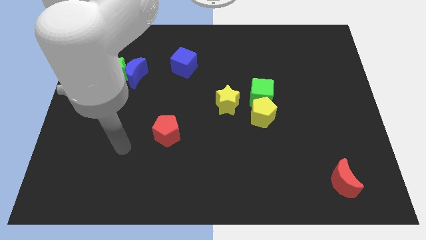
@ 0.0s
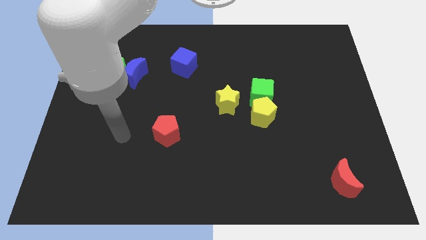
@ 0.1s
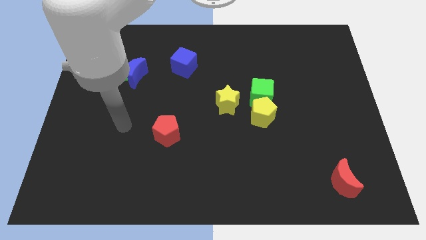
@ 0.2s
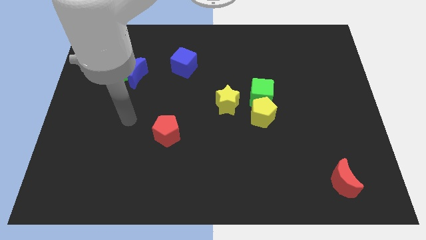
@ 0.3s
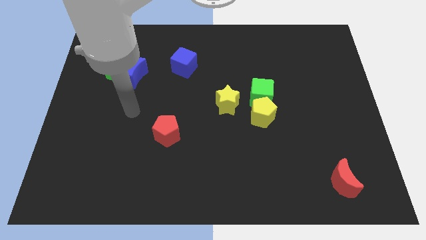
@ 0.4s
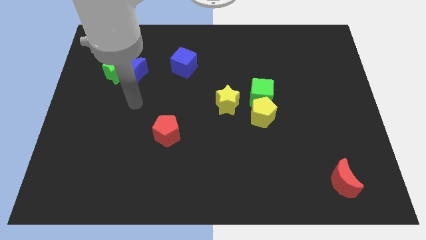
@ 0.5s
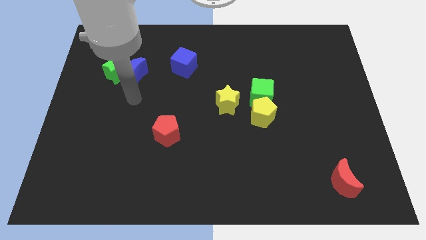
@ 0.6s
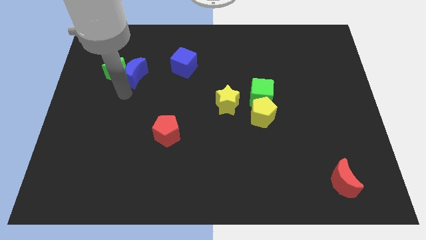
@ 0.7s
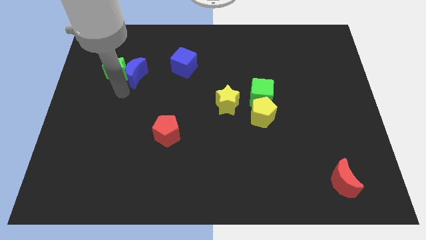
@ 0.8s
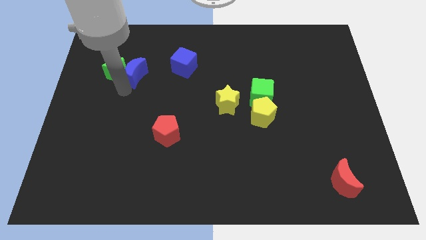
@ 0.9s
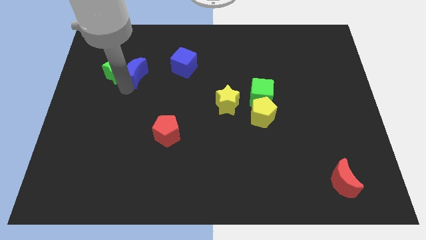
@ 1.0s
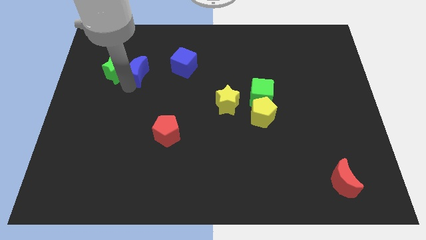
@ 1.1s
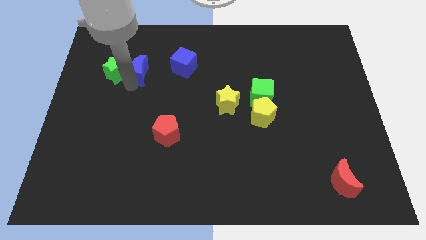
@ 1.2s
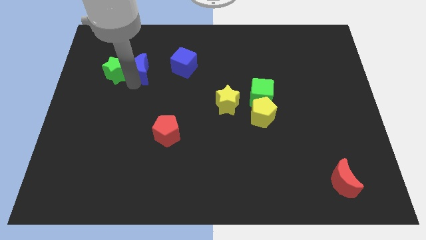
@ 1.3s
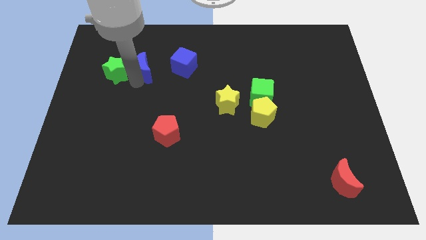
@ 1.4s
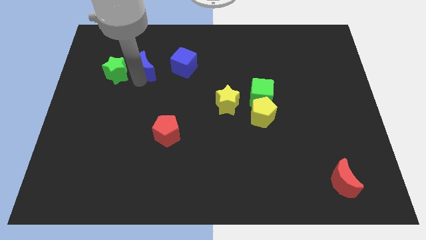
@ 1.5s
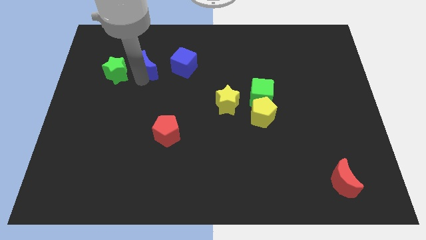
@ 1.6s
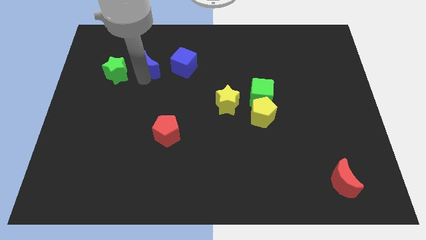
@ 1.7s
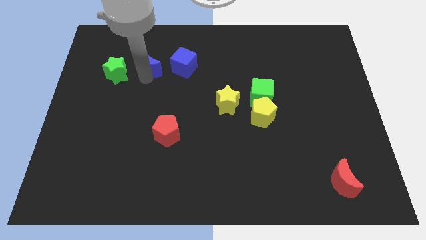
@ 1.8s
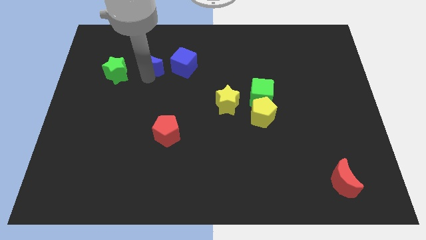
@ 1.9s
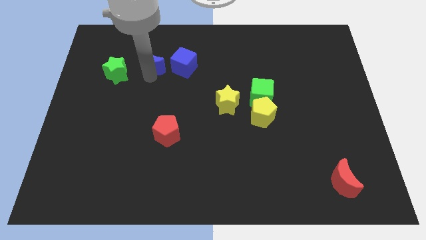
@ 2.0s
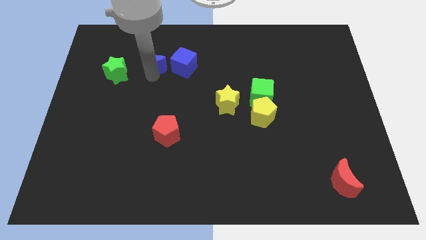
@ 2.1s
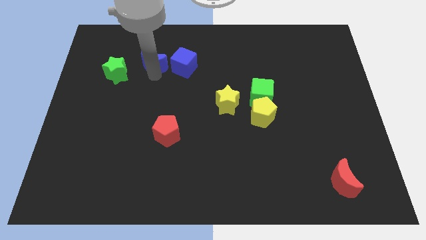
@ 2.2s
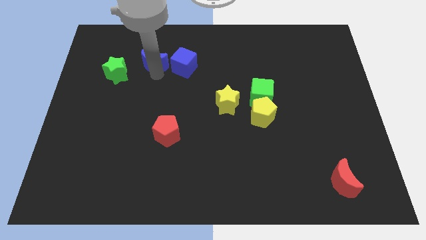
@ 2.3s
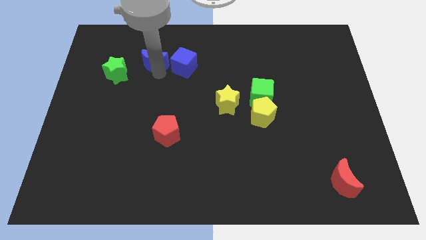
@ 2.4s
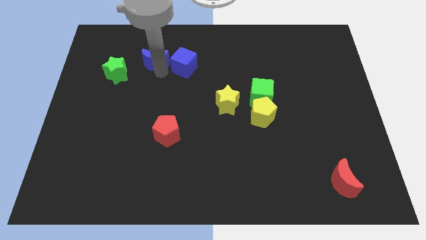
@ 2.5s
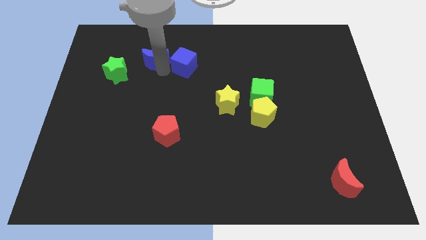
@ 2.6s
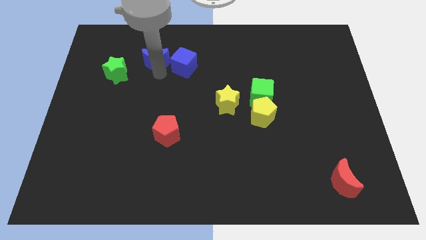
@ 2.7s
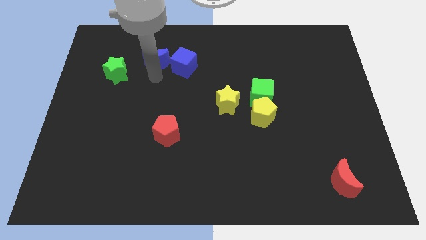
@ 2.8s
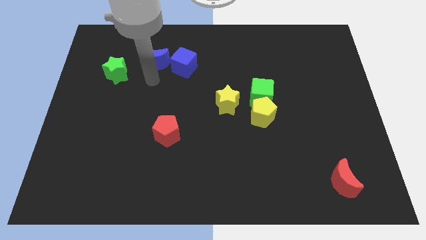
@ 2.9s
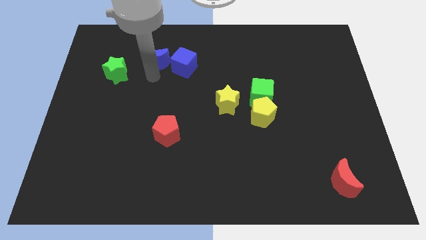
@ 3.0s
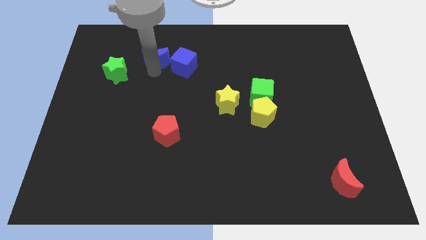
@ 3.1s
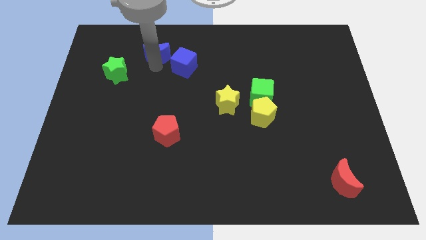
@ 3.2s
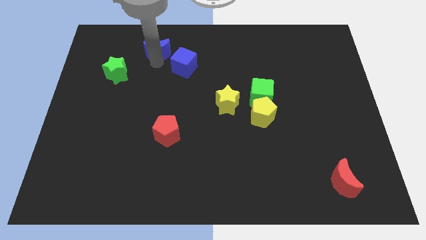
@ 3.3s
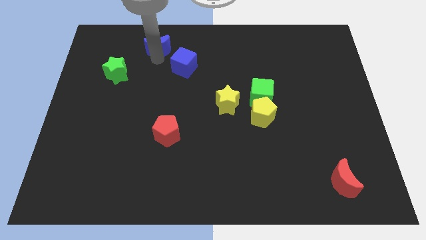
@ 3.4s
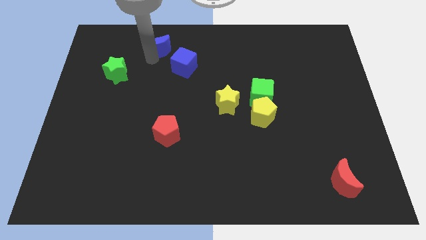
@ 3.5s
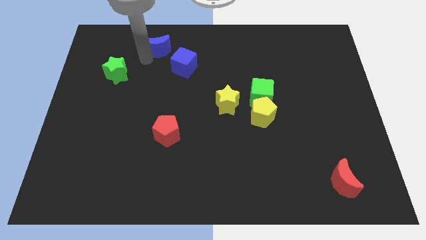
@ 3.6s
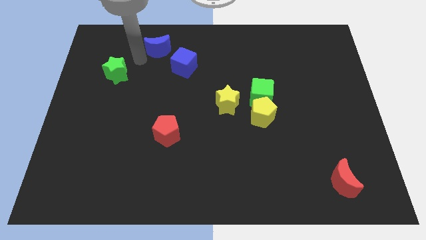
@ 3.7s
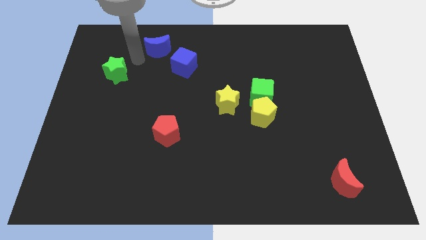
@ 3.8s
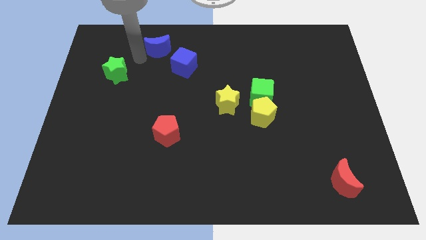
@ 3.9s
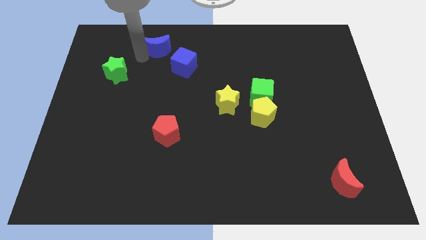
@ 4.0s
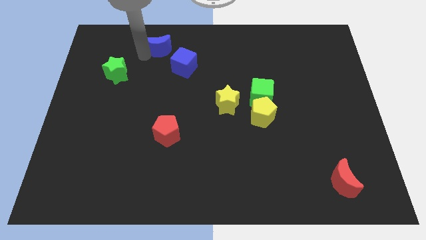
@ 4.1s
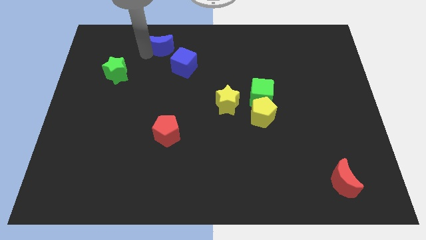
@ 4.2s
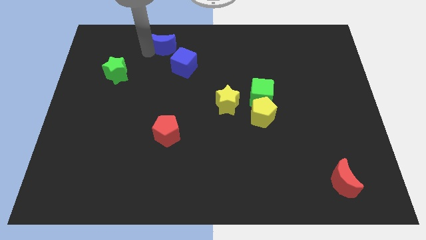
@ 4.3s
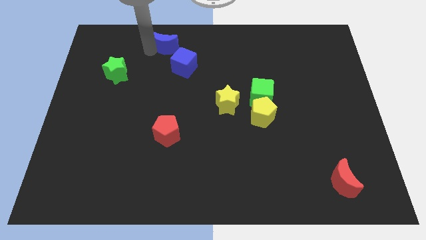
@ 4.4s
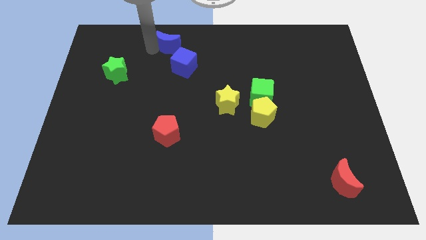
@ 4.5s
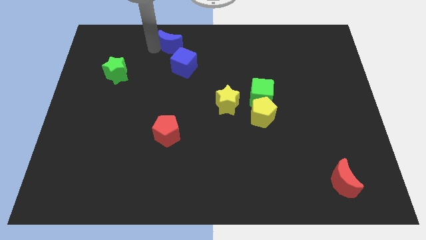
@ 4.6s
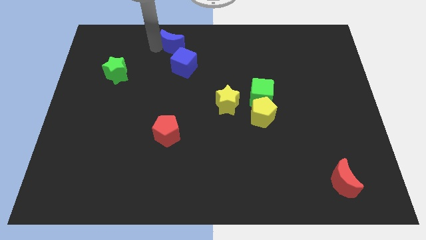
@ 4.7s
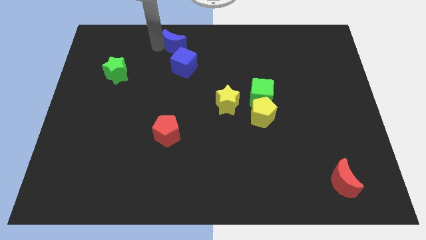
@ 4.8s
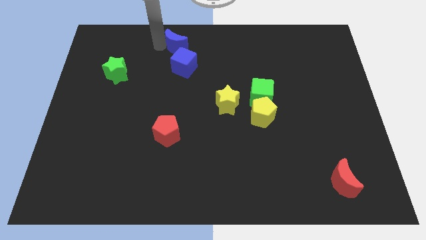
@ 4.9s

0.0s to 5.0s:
push the blue moon to the top

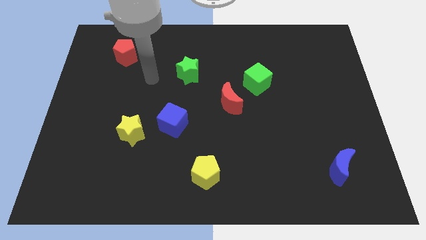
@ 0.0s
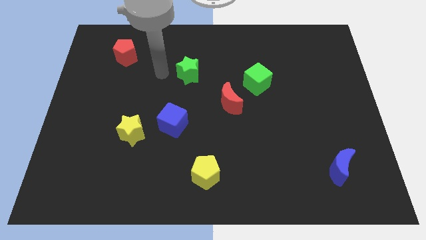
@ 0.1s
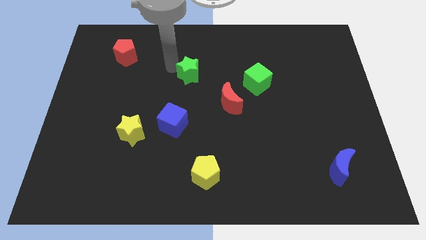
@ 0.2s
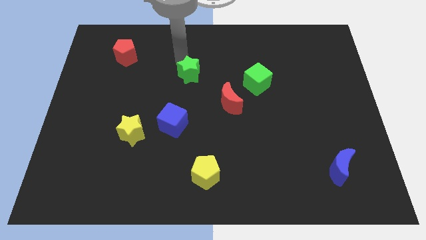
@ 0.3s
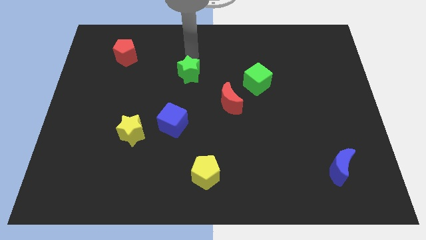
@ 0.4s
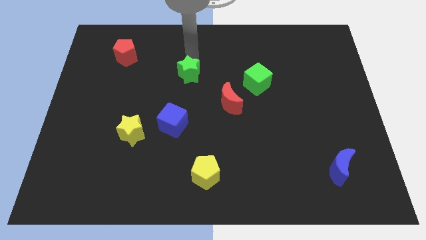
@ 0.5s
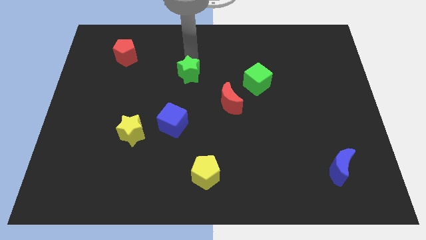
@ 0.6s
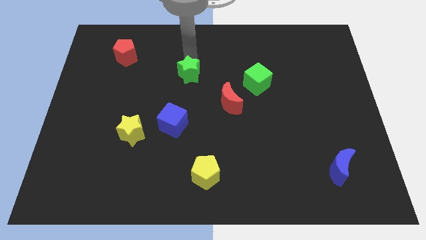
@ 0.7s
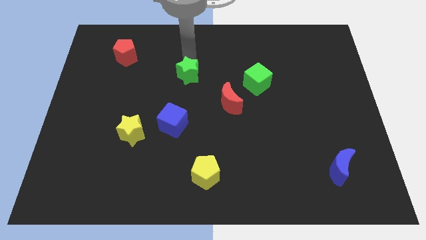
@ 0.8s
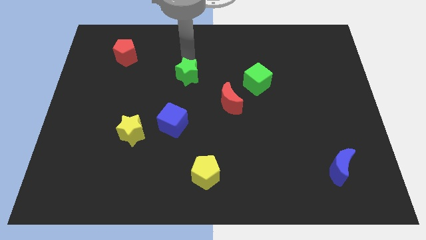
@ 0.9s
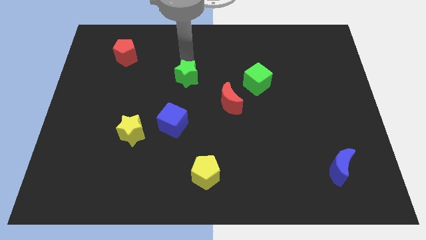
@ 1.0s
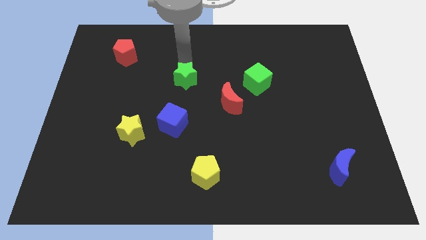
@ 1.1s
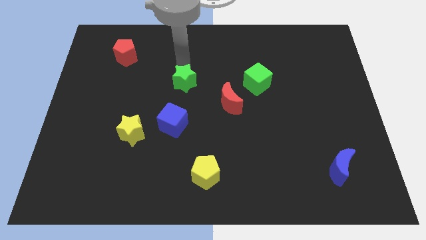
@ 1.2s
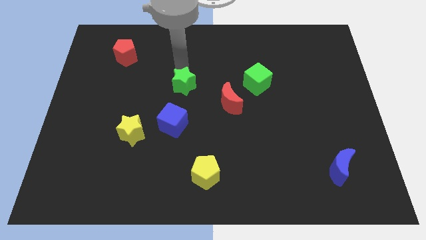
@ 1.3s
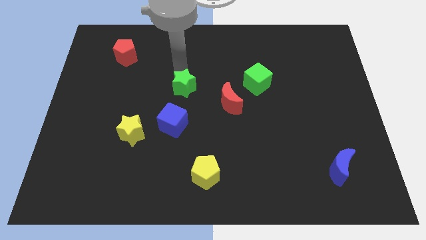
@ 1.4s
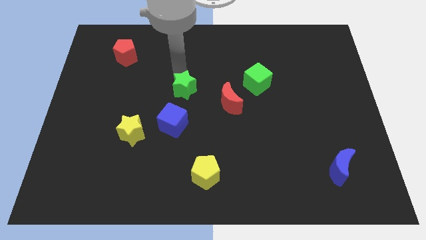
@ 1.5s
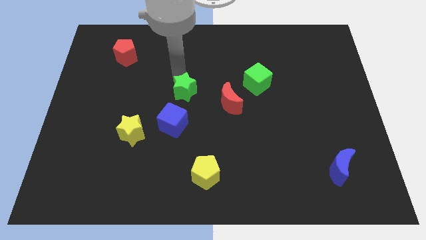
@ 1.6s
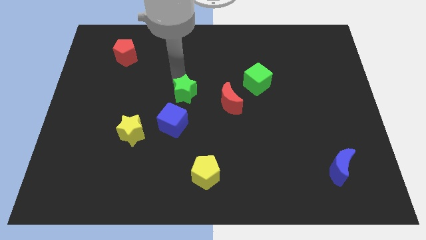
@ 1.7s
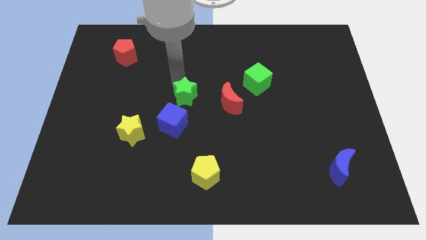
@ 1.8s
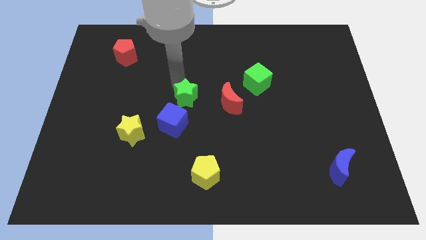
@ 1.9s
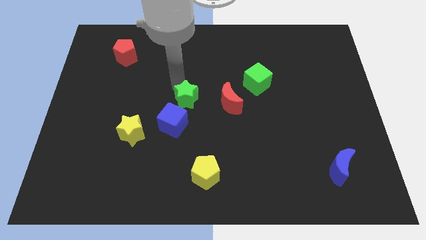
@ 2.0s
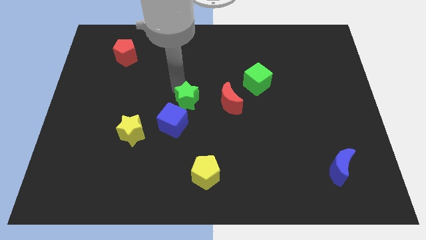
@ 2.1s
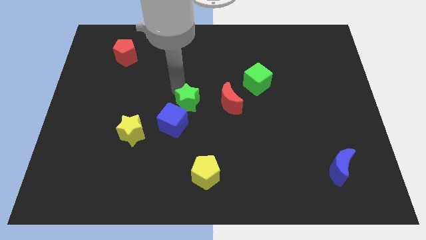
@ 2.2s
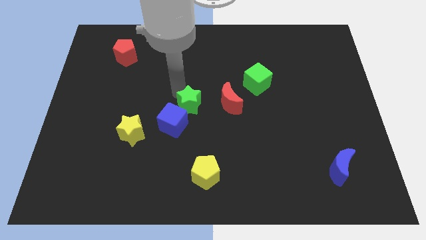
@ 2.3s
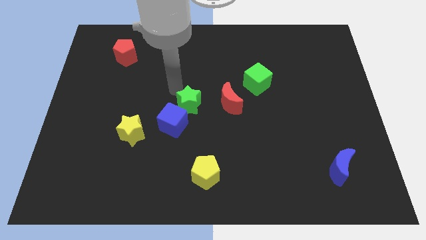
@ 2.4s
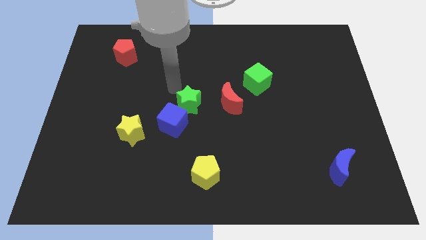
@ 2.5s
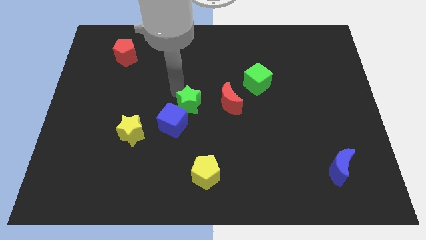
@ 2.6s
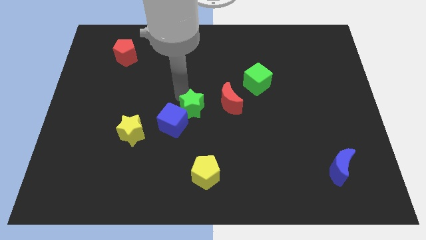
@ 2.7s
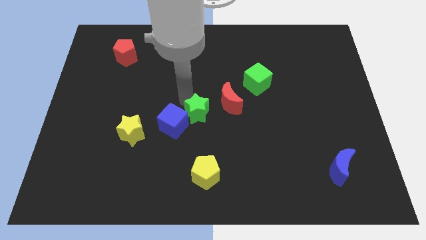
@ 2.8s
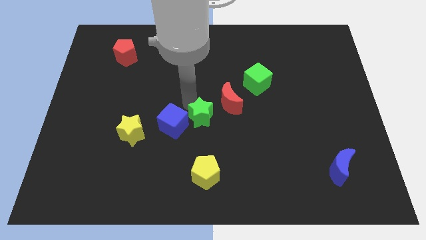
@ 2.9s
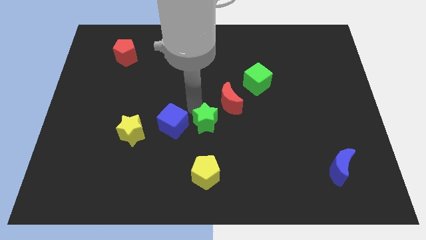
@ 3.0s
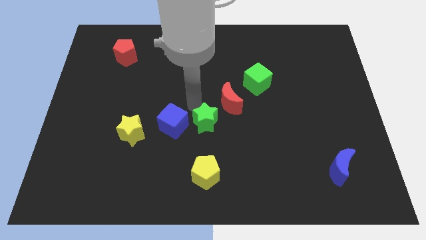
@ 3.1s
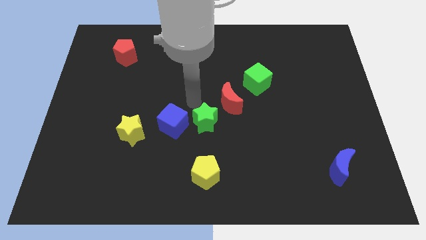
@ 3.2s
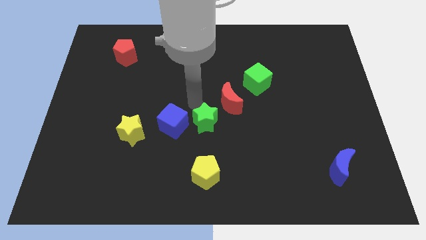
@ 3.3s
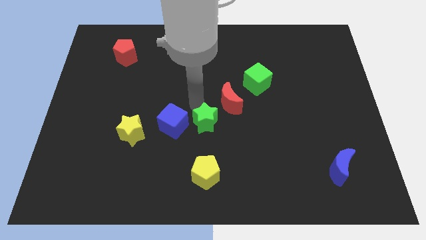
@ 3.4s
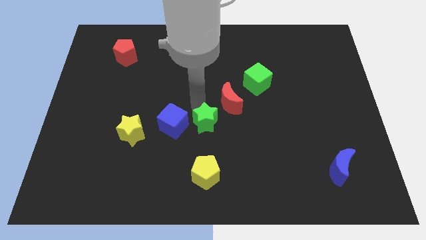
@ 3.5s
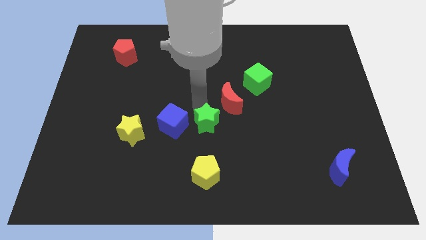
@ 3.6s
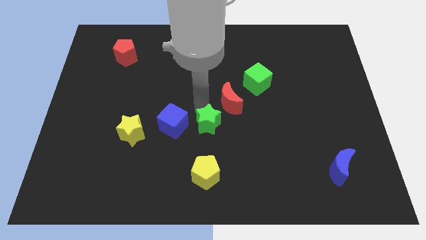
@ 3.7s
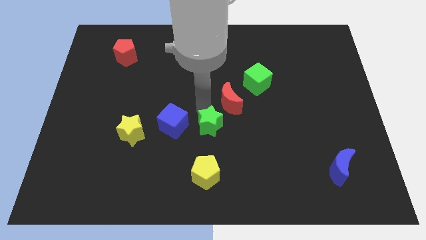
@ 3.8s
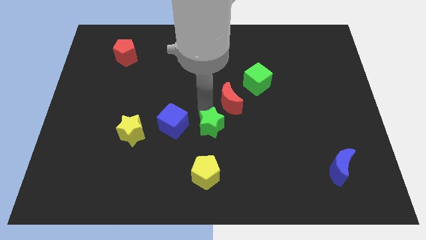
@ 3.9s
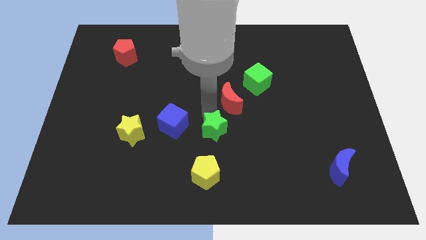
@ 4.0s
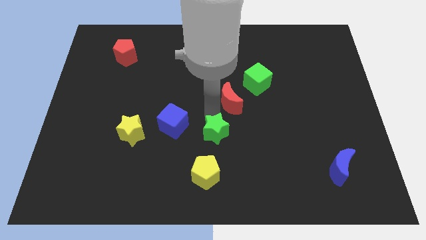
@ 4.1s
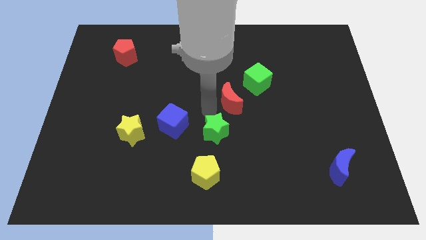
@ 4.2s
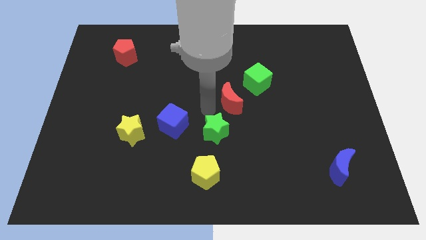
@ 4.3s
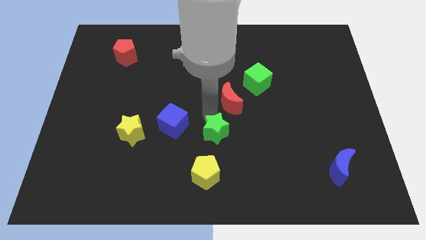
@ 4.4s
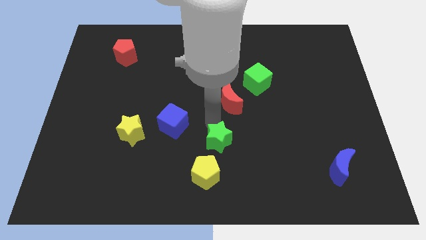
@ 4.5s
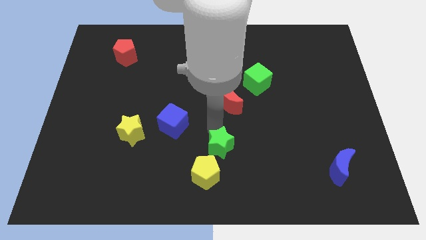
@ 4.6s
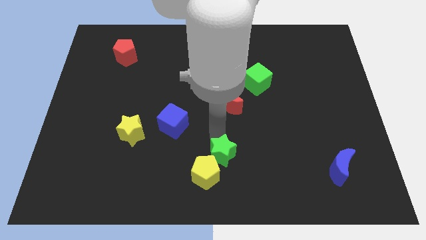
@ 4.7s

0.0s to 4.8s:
slide the green star to the bottom
